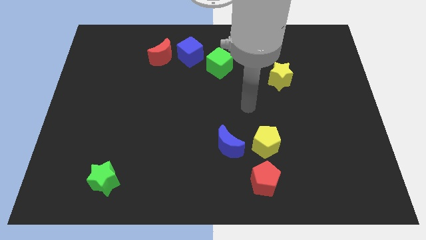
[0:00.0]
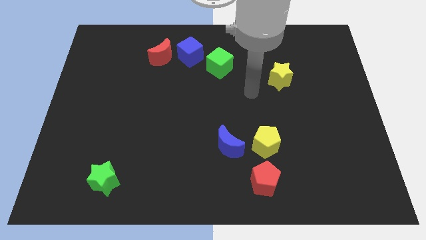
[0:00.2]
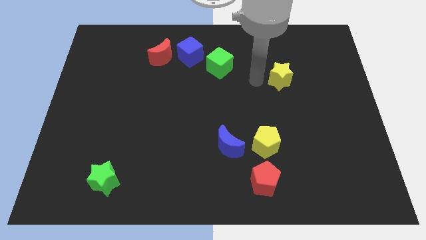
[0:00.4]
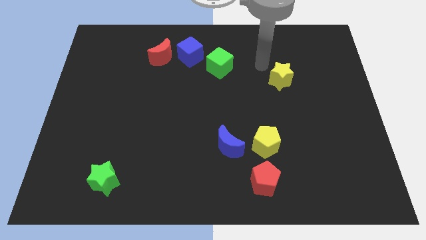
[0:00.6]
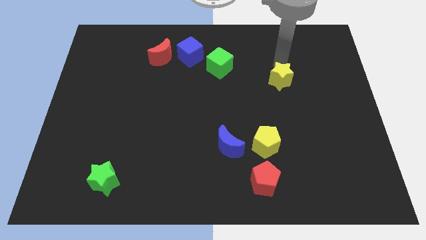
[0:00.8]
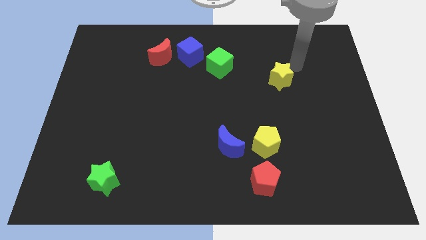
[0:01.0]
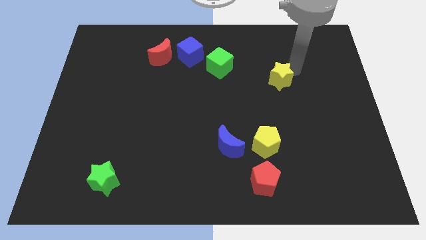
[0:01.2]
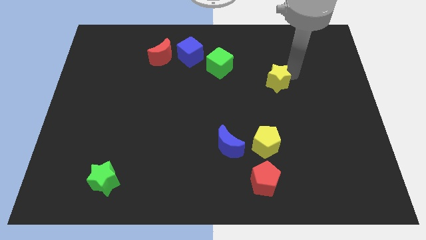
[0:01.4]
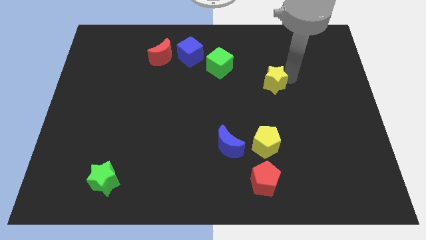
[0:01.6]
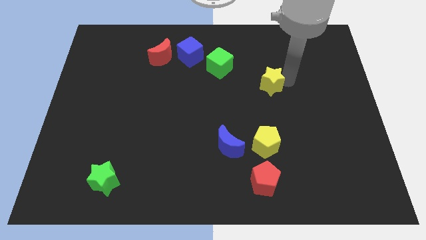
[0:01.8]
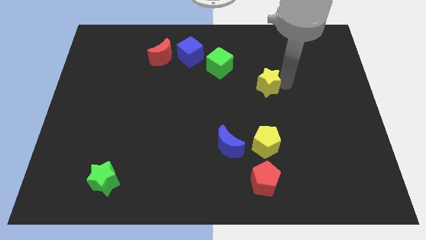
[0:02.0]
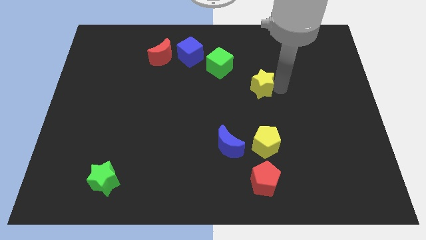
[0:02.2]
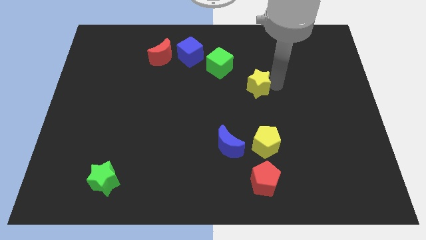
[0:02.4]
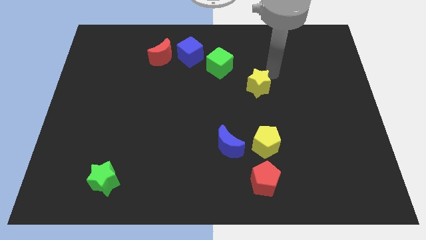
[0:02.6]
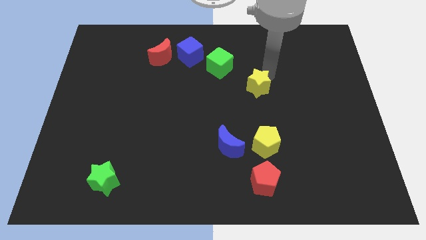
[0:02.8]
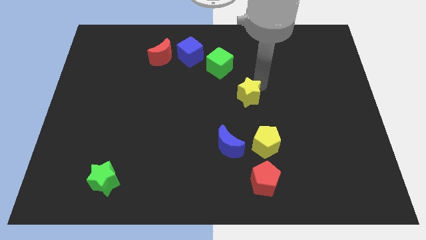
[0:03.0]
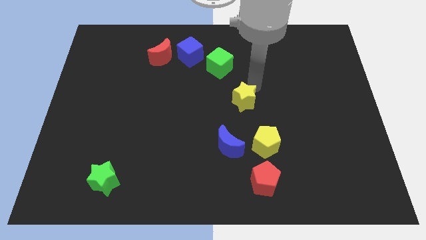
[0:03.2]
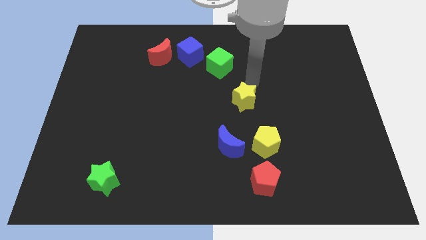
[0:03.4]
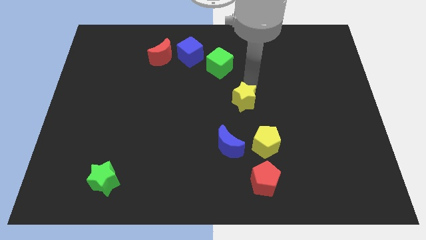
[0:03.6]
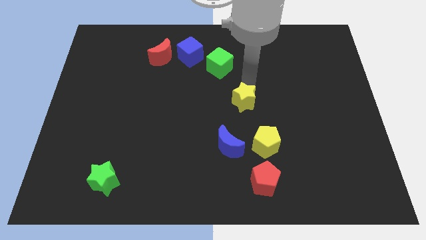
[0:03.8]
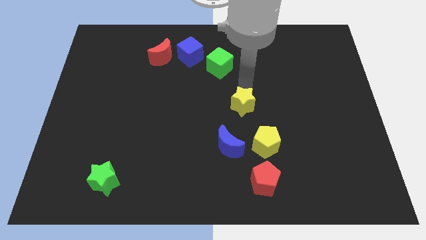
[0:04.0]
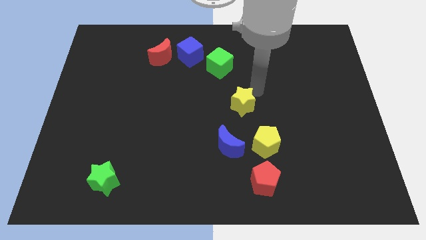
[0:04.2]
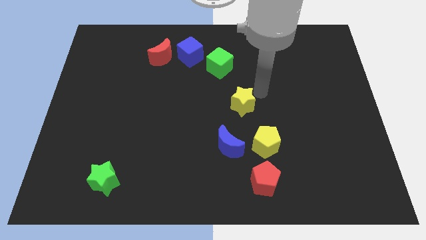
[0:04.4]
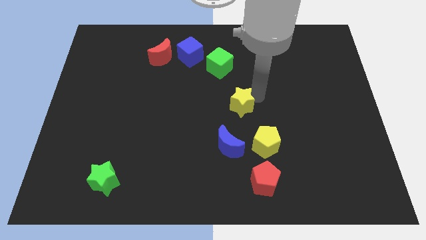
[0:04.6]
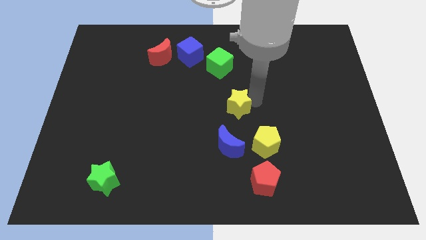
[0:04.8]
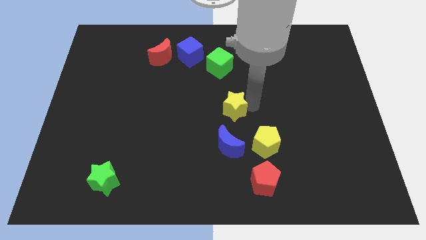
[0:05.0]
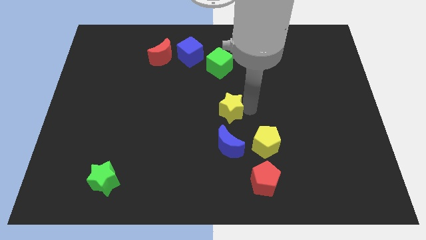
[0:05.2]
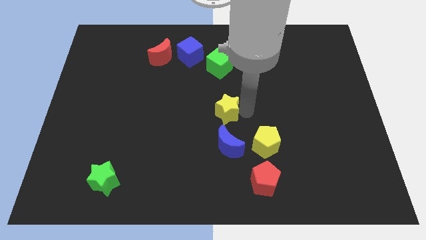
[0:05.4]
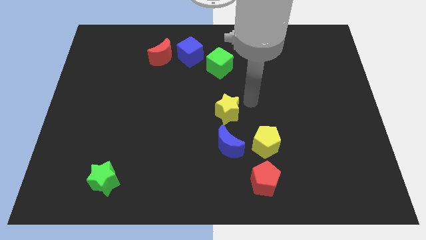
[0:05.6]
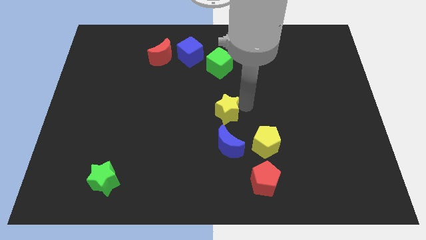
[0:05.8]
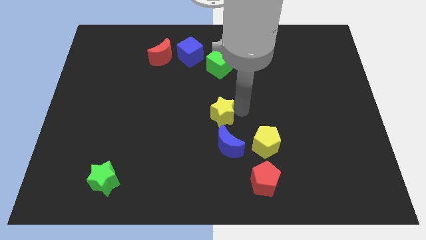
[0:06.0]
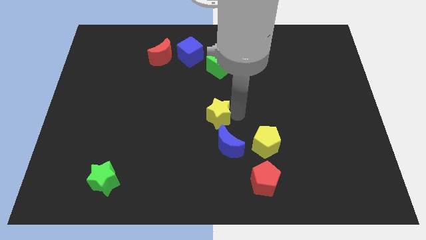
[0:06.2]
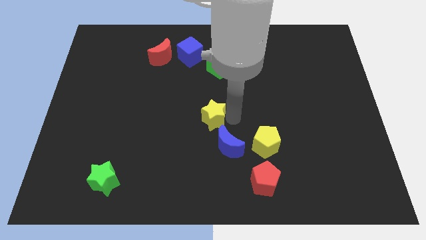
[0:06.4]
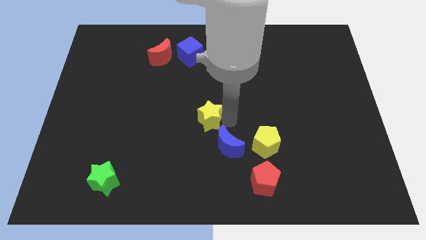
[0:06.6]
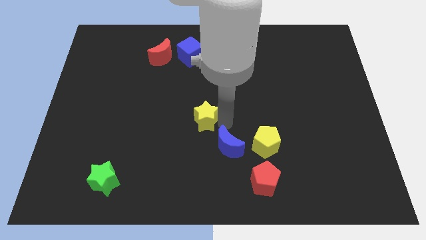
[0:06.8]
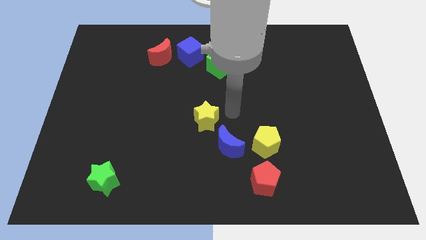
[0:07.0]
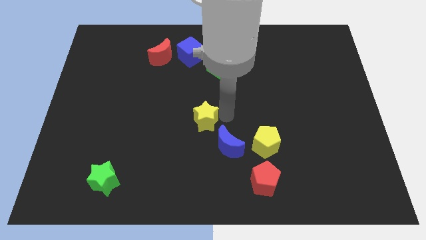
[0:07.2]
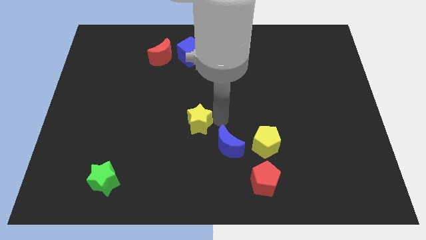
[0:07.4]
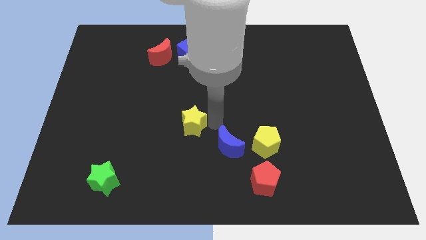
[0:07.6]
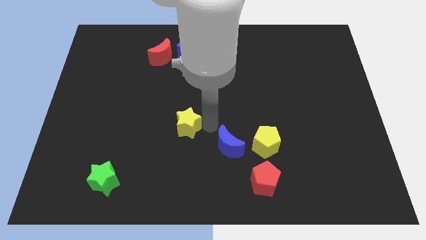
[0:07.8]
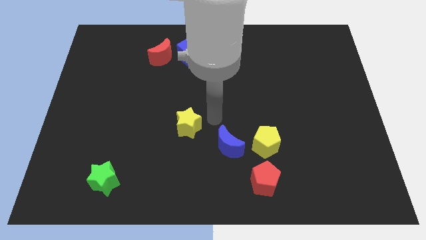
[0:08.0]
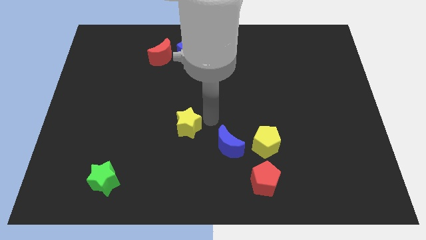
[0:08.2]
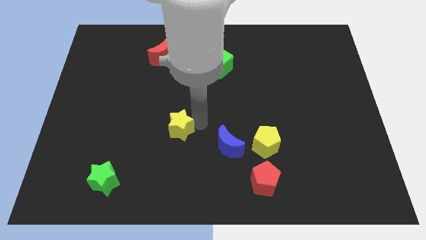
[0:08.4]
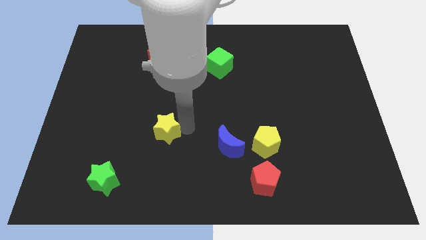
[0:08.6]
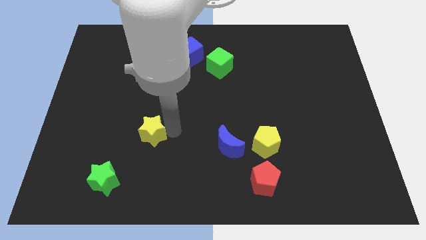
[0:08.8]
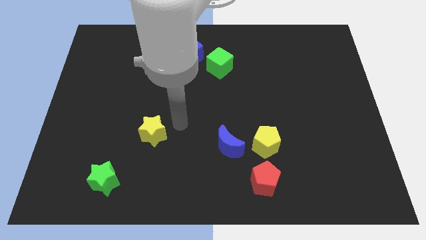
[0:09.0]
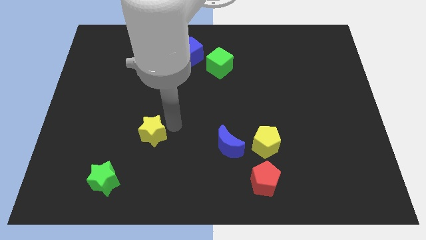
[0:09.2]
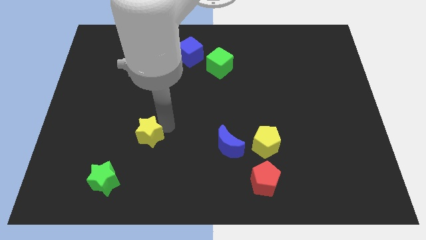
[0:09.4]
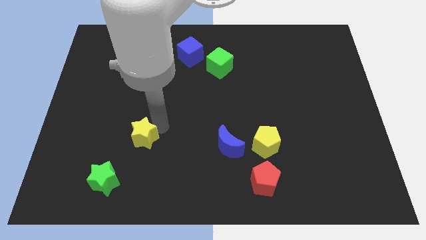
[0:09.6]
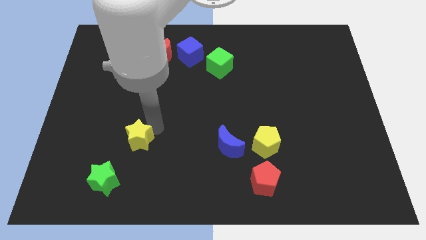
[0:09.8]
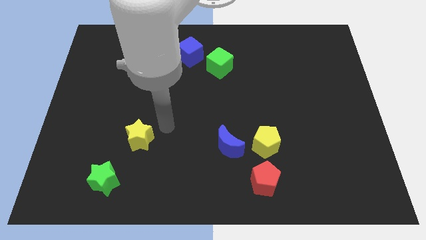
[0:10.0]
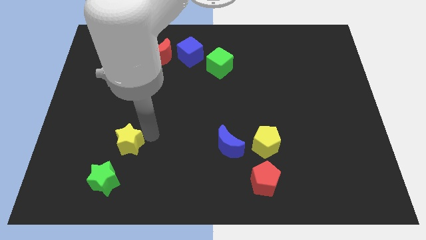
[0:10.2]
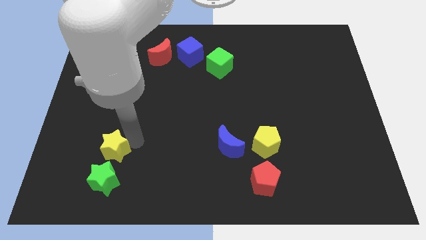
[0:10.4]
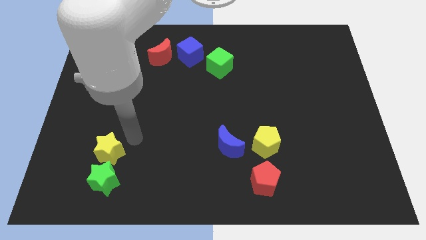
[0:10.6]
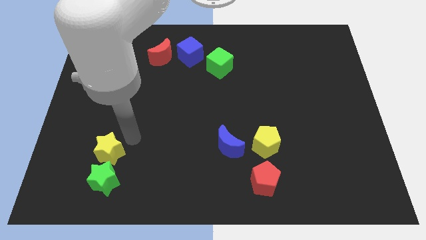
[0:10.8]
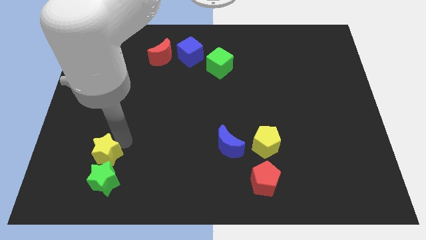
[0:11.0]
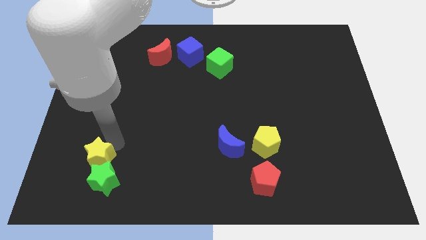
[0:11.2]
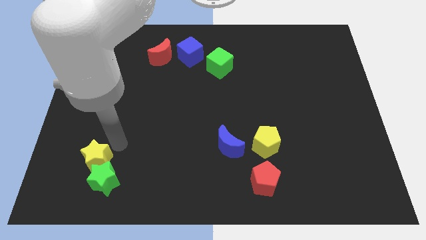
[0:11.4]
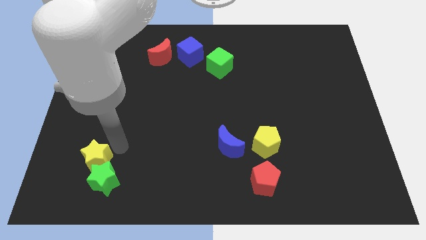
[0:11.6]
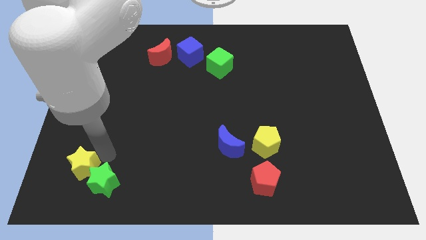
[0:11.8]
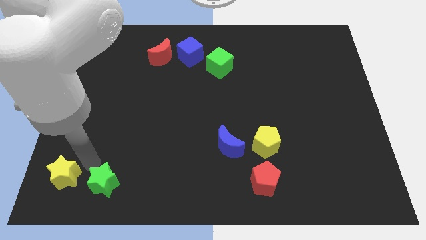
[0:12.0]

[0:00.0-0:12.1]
move the yellow star to the bottom left of the board
